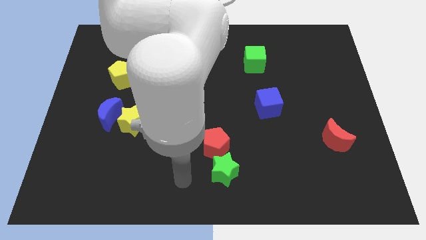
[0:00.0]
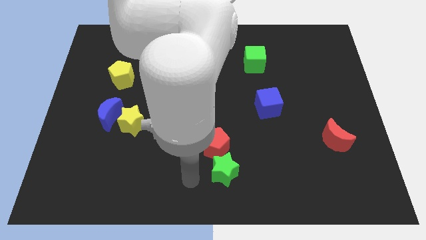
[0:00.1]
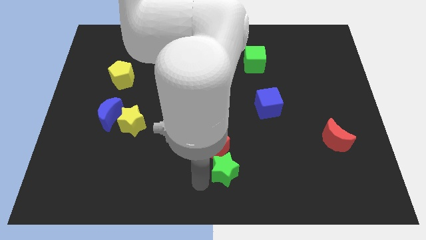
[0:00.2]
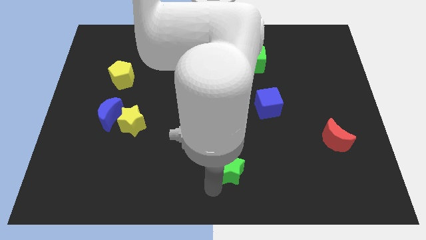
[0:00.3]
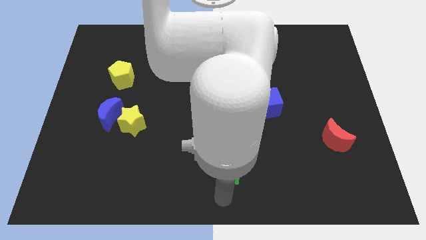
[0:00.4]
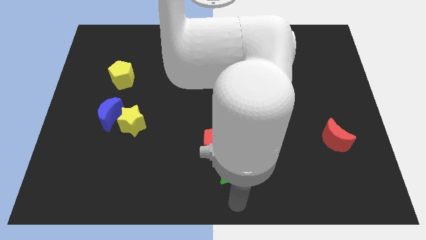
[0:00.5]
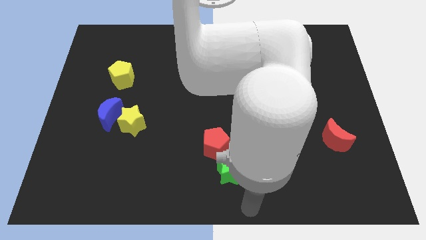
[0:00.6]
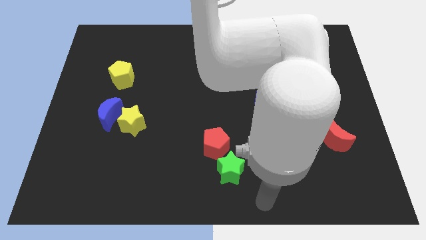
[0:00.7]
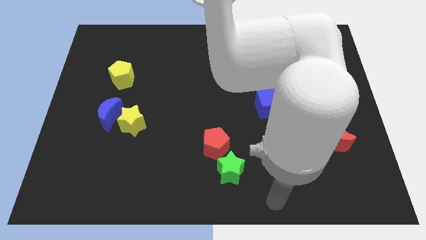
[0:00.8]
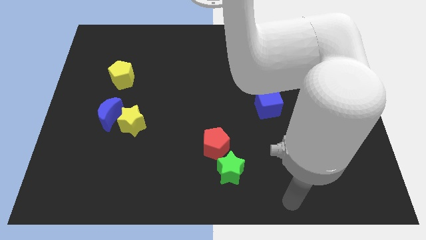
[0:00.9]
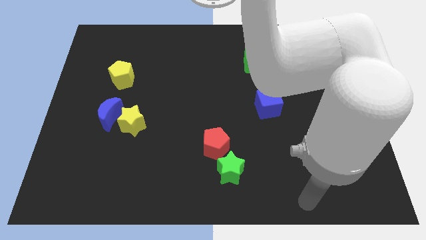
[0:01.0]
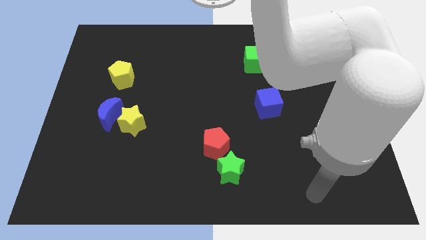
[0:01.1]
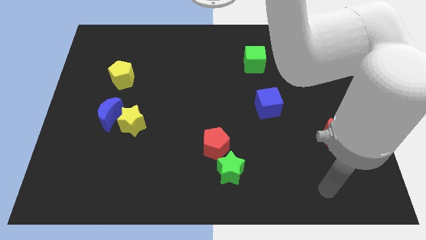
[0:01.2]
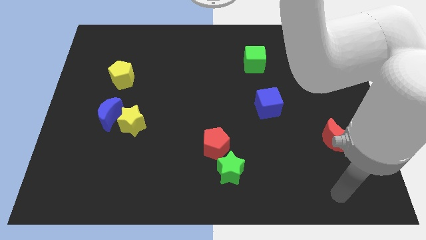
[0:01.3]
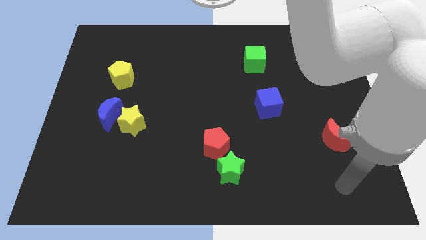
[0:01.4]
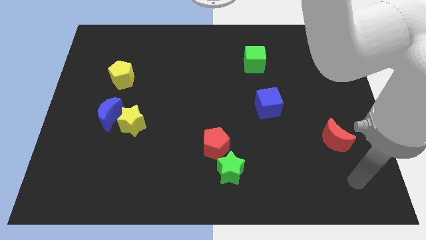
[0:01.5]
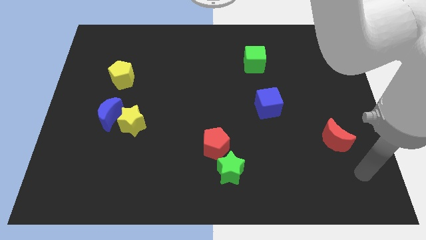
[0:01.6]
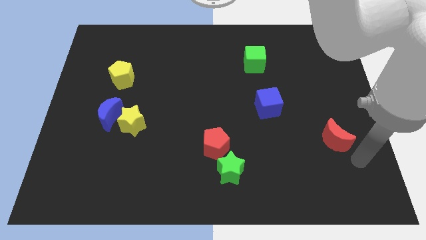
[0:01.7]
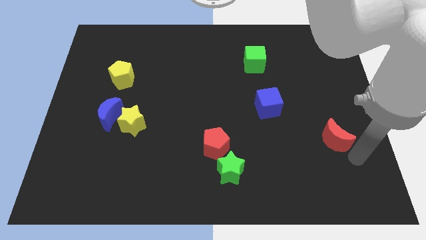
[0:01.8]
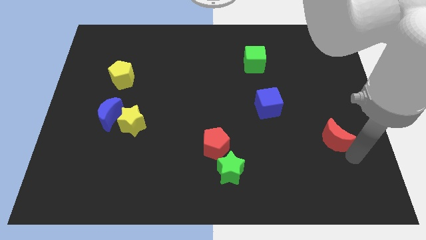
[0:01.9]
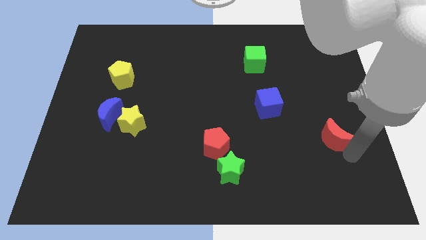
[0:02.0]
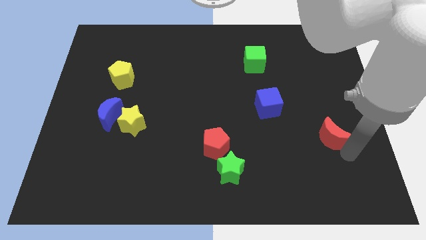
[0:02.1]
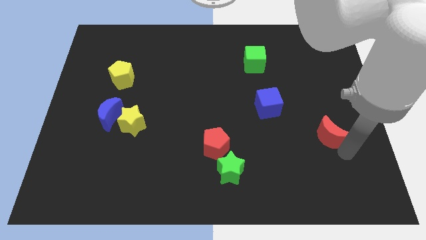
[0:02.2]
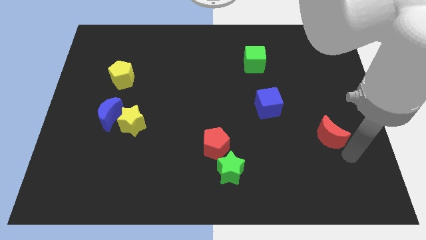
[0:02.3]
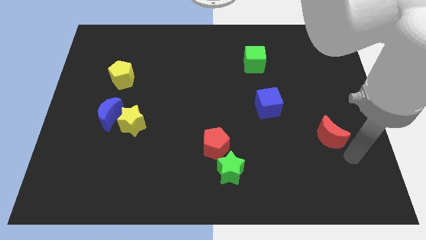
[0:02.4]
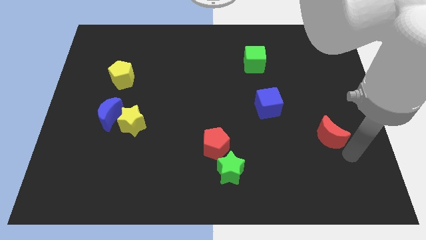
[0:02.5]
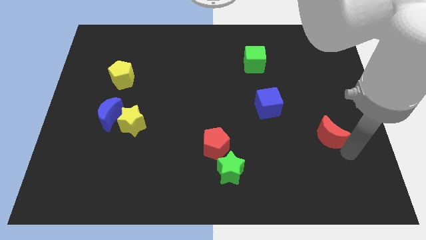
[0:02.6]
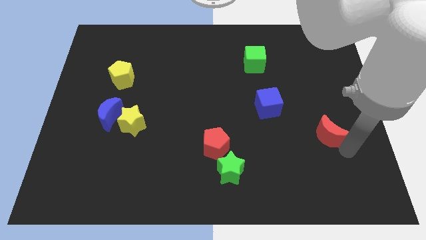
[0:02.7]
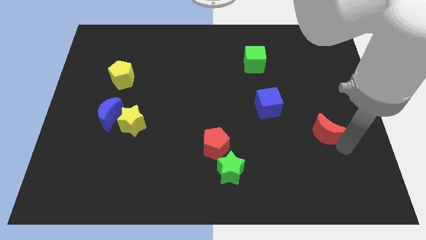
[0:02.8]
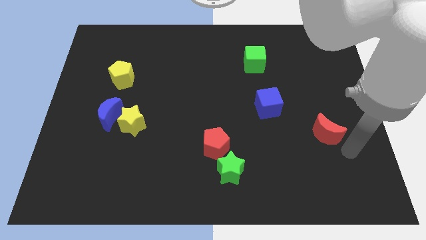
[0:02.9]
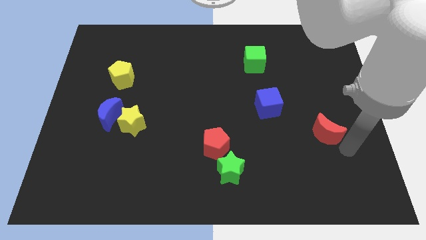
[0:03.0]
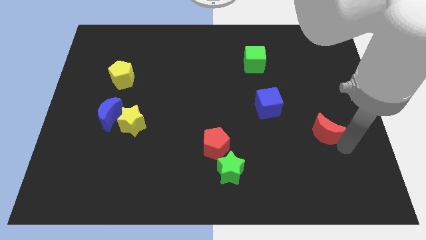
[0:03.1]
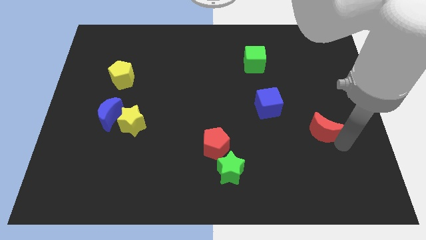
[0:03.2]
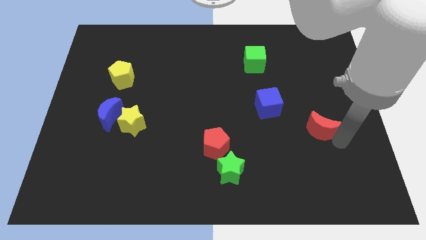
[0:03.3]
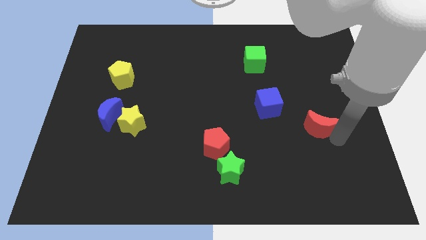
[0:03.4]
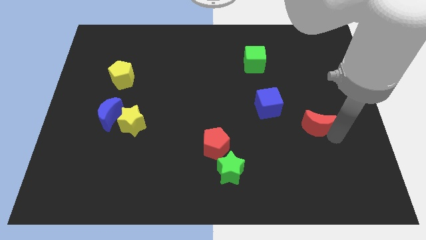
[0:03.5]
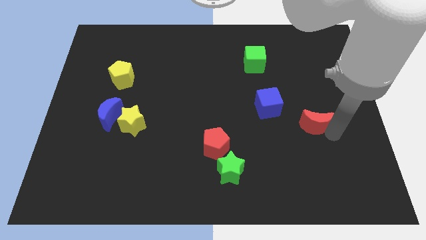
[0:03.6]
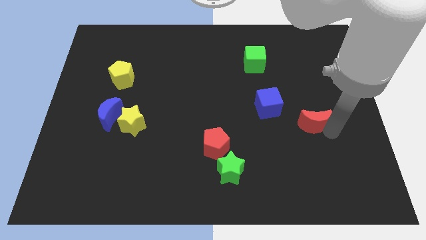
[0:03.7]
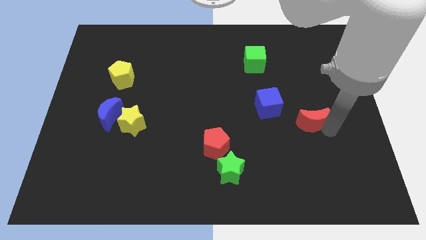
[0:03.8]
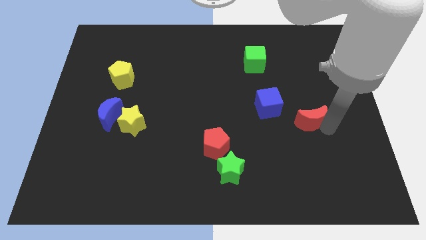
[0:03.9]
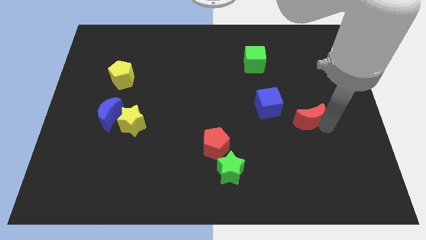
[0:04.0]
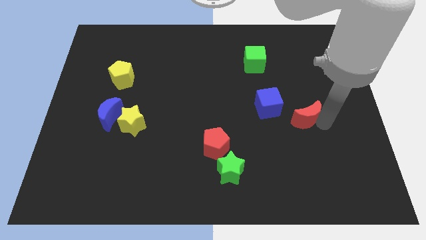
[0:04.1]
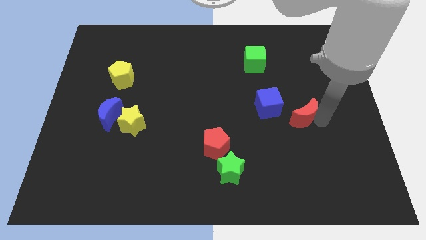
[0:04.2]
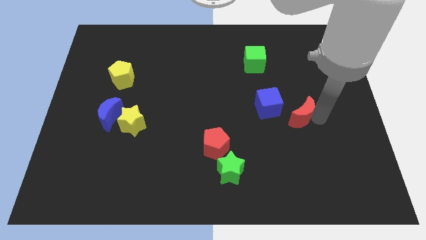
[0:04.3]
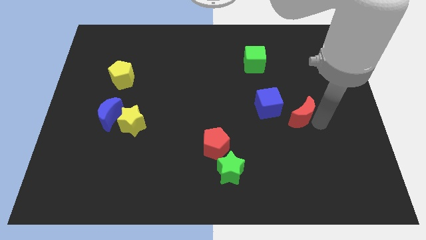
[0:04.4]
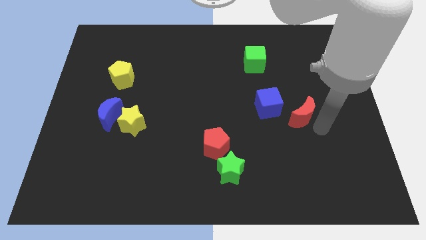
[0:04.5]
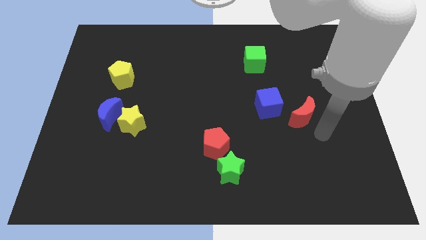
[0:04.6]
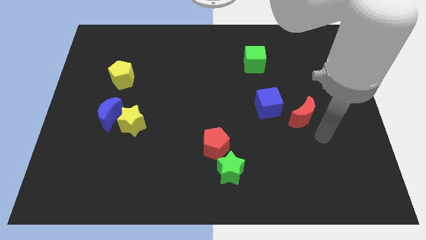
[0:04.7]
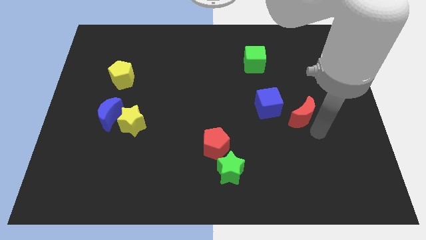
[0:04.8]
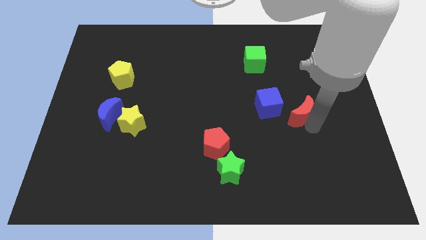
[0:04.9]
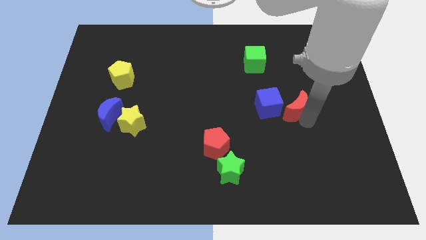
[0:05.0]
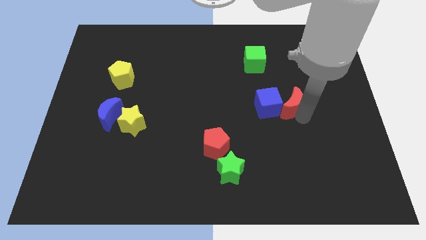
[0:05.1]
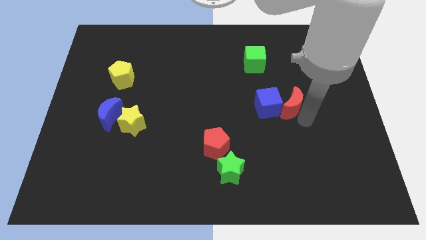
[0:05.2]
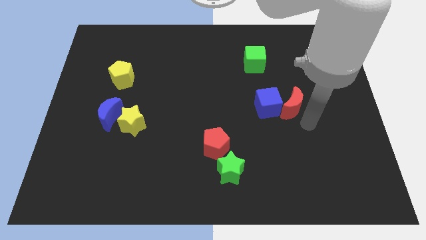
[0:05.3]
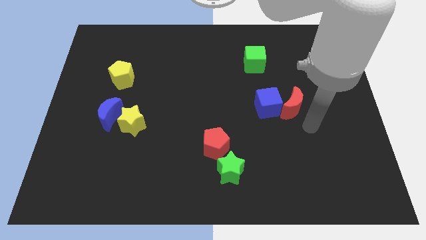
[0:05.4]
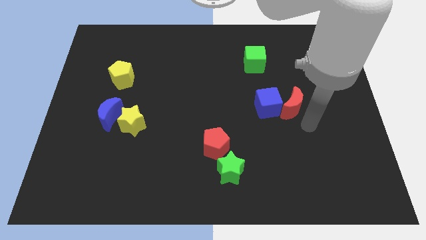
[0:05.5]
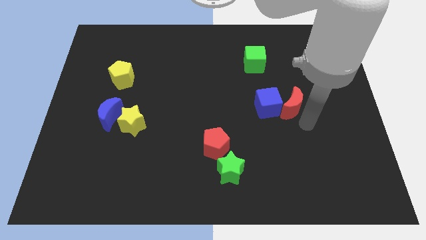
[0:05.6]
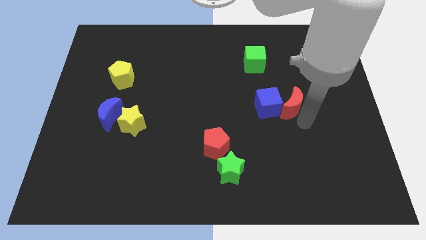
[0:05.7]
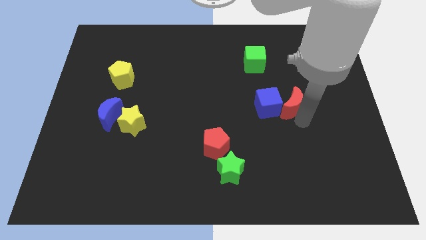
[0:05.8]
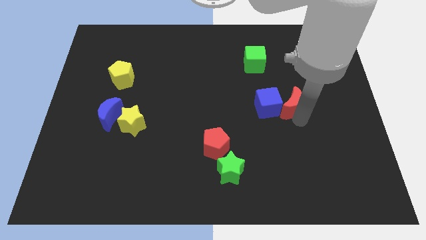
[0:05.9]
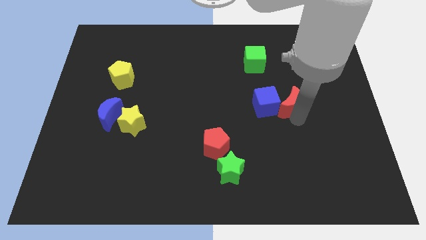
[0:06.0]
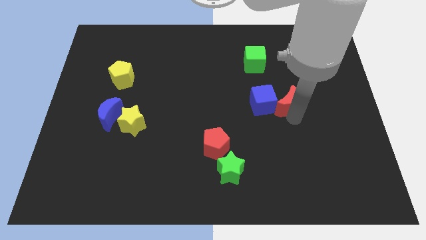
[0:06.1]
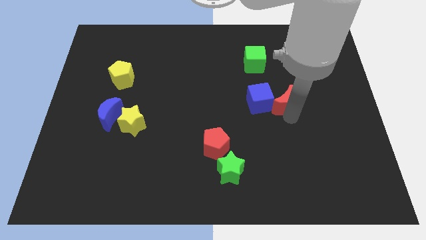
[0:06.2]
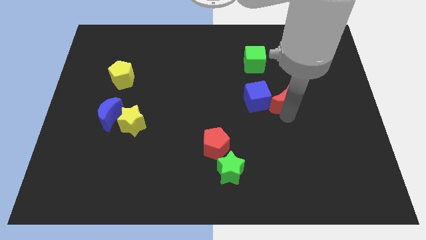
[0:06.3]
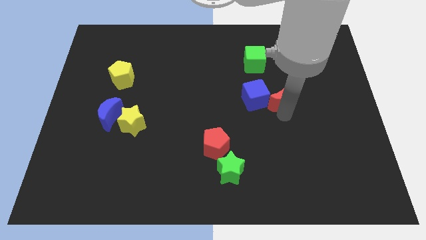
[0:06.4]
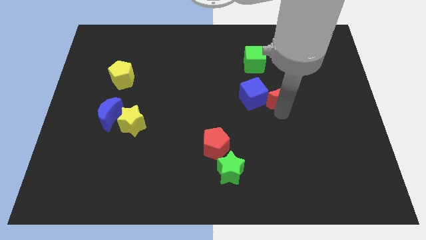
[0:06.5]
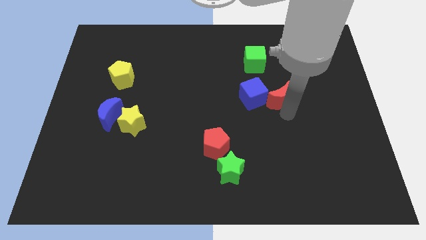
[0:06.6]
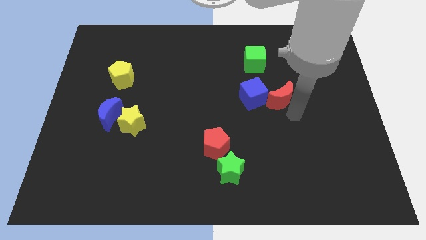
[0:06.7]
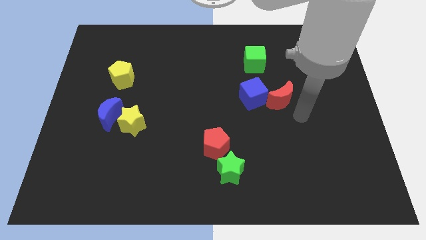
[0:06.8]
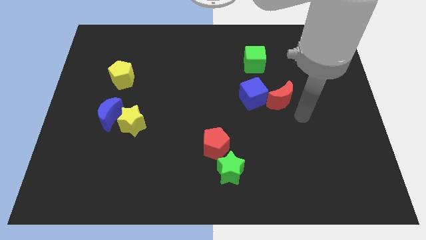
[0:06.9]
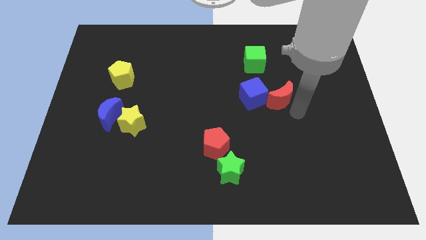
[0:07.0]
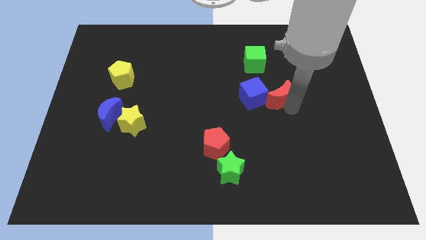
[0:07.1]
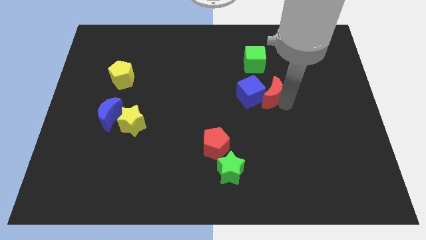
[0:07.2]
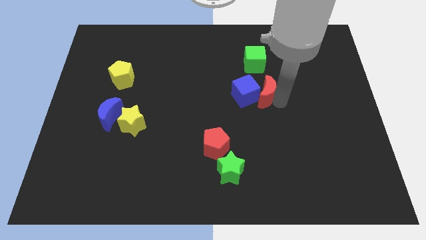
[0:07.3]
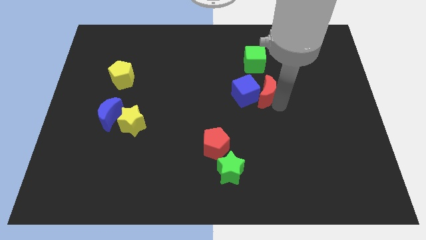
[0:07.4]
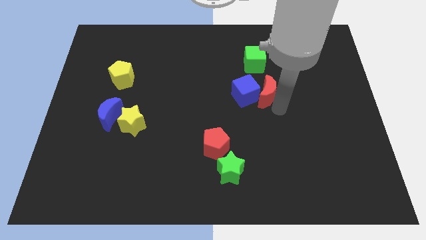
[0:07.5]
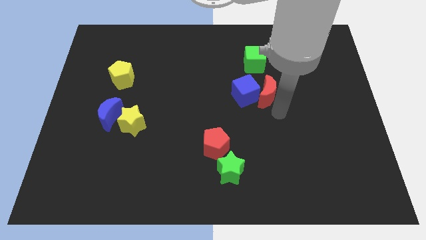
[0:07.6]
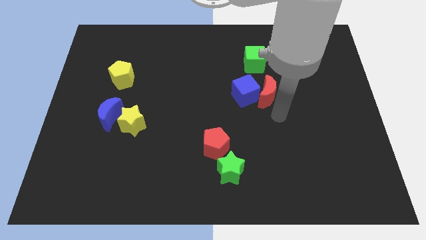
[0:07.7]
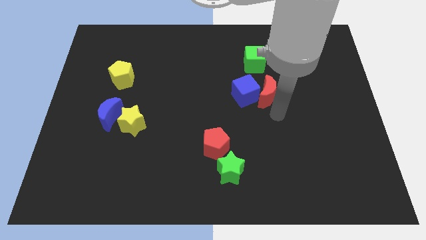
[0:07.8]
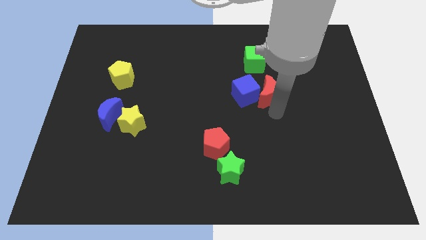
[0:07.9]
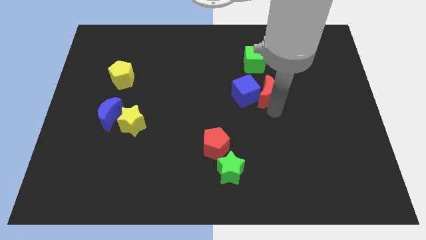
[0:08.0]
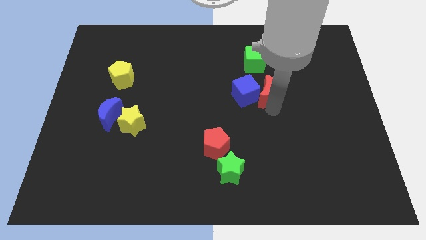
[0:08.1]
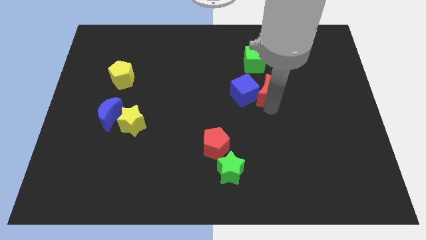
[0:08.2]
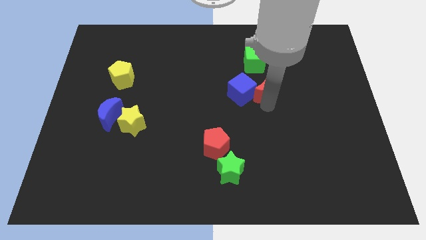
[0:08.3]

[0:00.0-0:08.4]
slide the red moon up and left

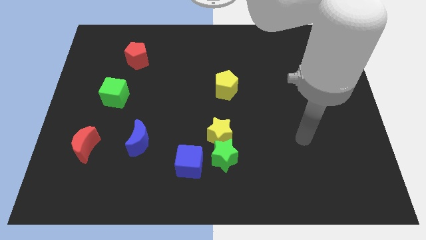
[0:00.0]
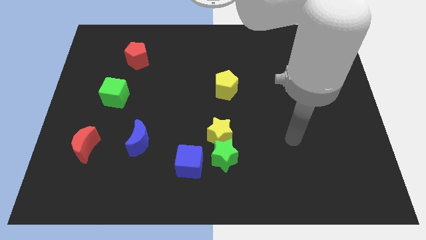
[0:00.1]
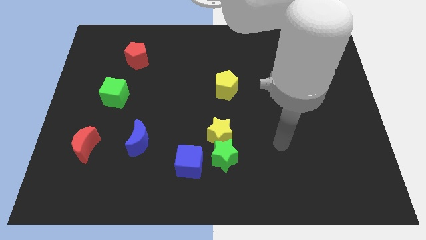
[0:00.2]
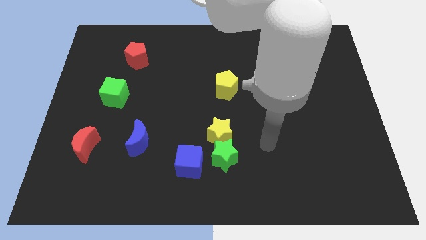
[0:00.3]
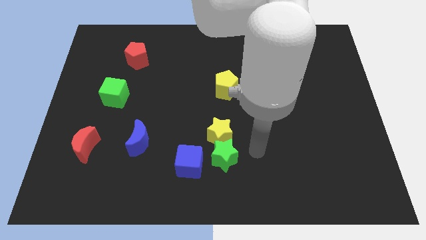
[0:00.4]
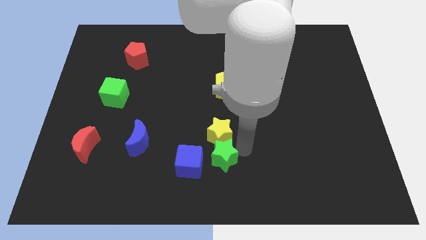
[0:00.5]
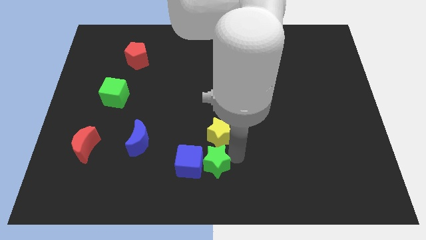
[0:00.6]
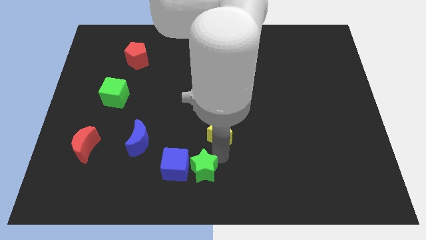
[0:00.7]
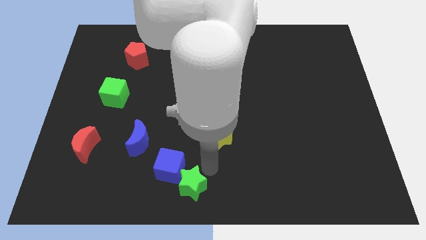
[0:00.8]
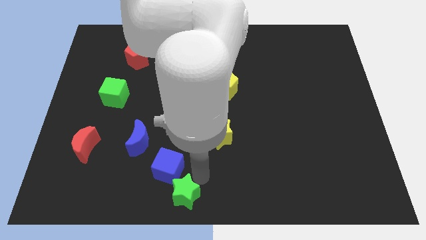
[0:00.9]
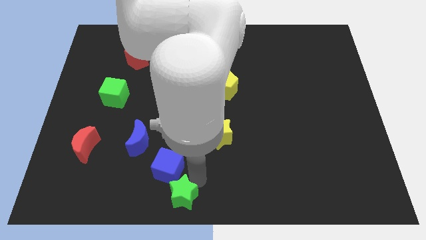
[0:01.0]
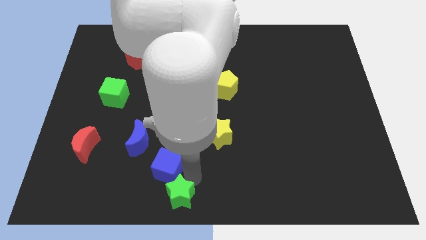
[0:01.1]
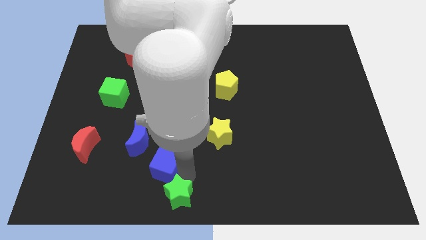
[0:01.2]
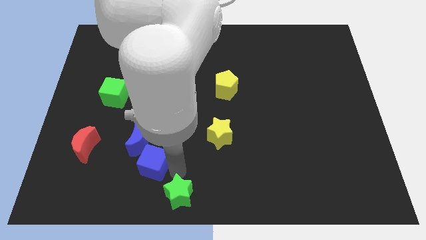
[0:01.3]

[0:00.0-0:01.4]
move the blue cube a little to the left
